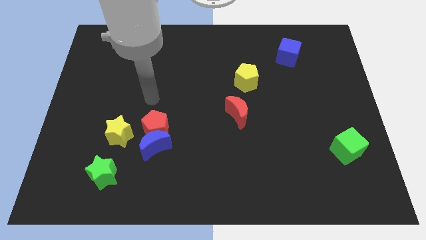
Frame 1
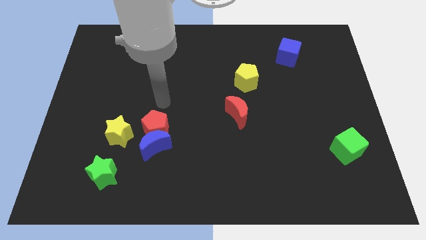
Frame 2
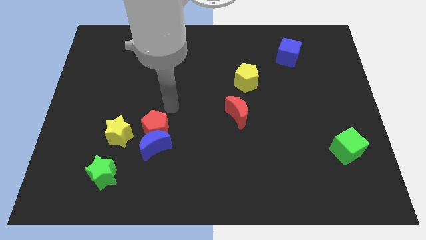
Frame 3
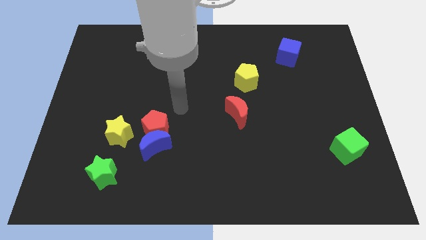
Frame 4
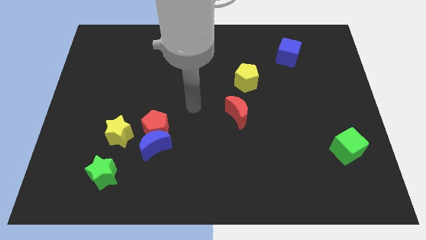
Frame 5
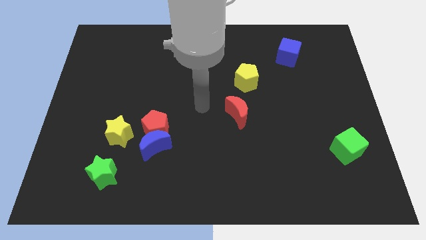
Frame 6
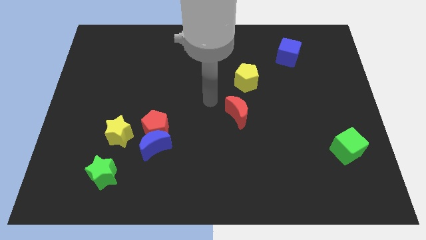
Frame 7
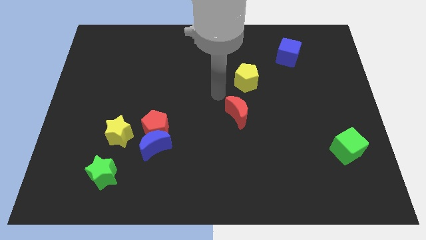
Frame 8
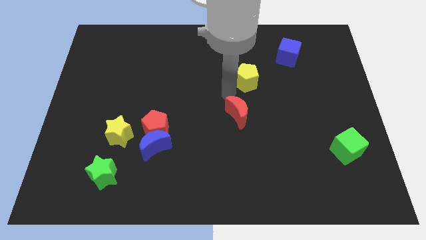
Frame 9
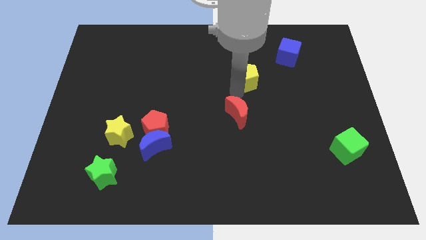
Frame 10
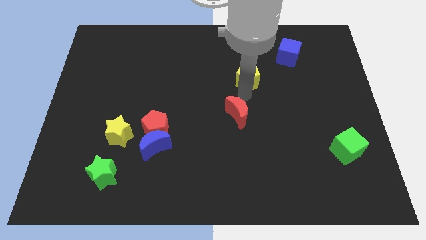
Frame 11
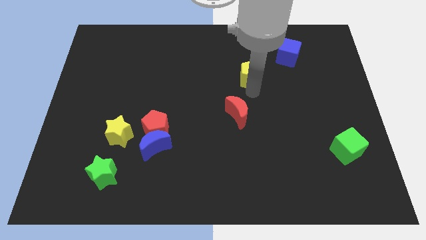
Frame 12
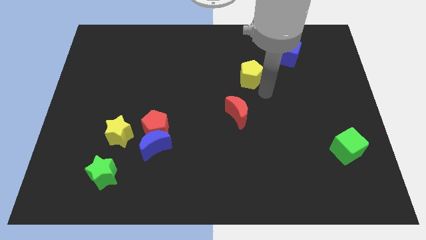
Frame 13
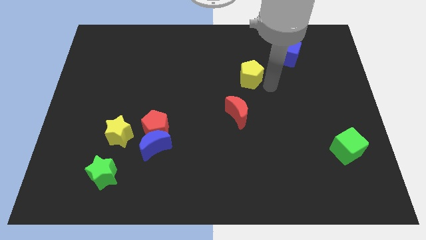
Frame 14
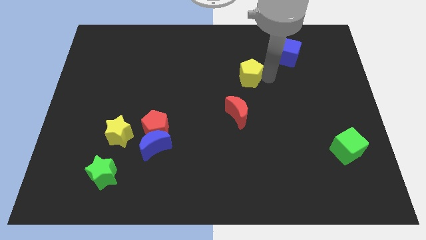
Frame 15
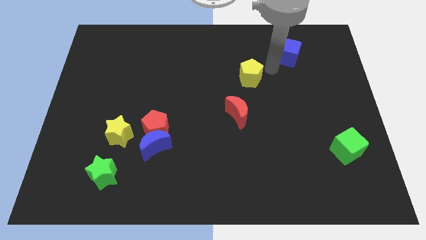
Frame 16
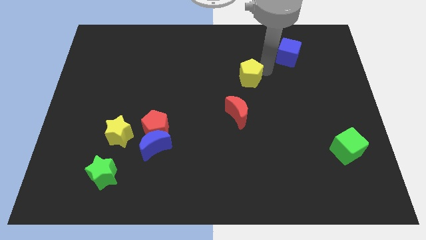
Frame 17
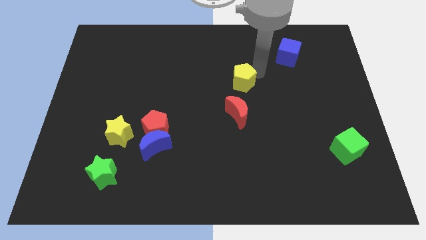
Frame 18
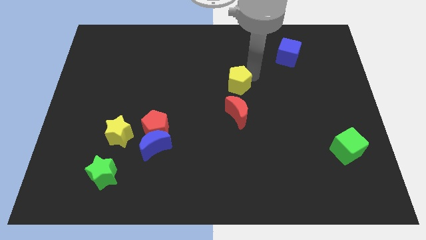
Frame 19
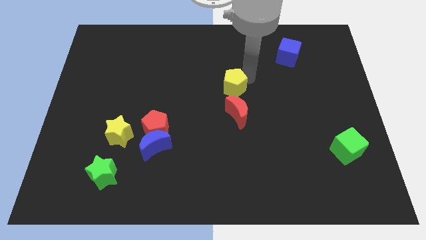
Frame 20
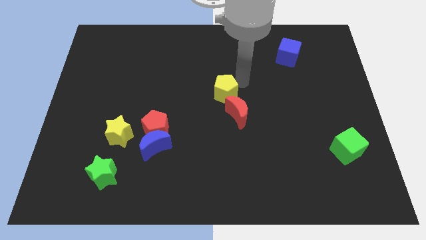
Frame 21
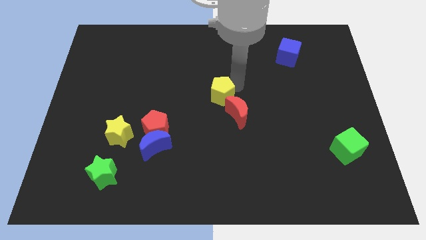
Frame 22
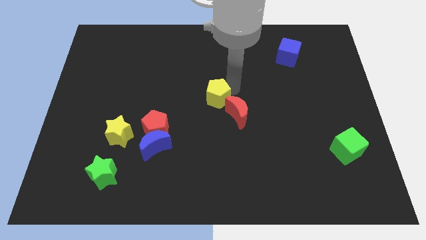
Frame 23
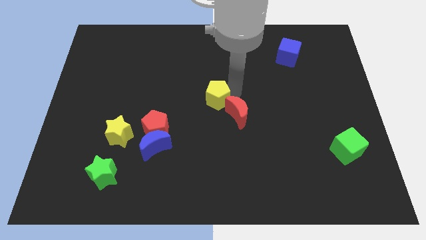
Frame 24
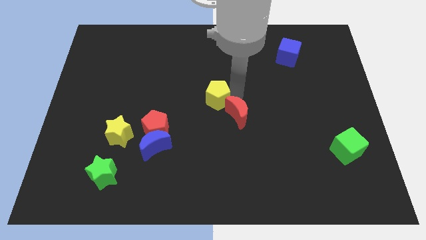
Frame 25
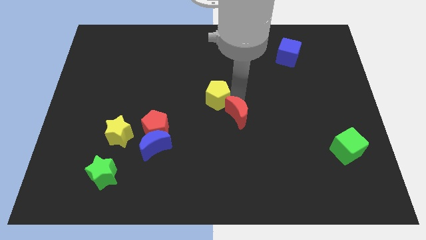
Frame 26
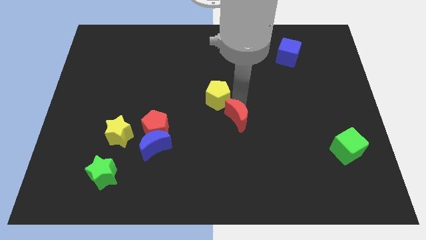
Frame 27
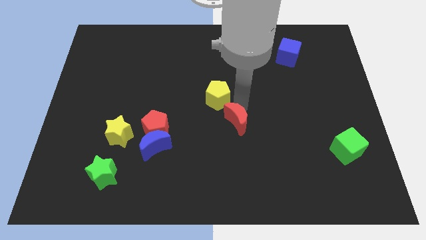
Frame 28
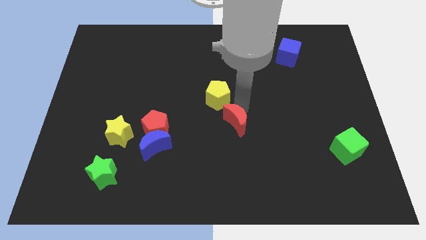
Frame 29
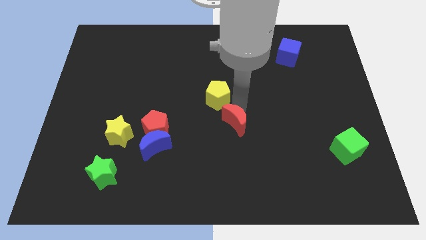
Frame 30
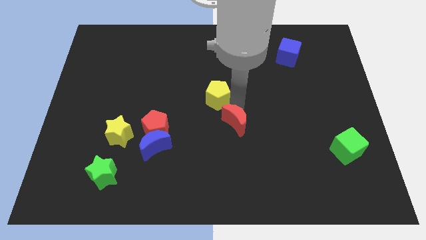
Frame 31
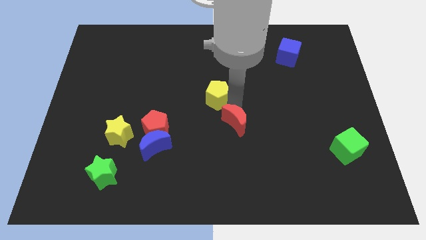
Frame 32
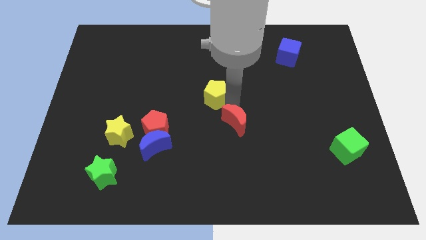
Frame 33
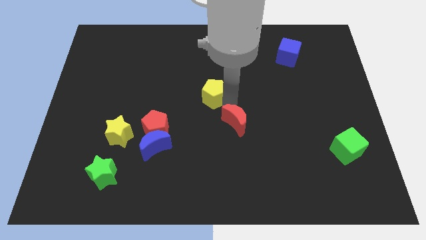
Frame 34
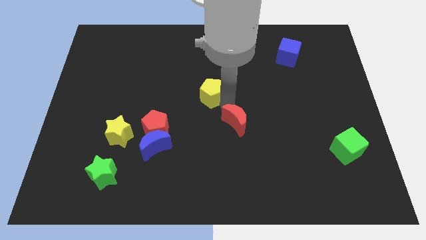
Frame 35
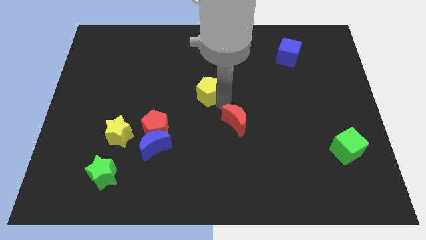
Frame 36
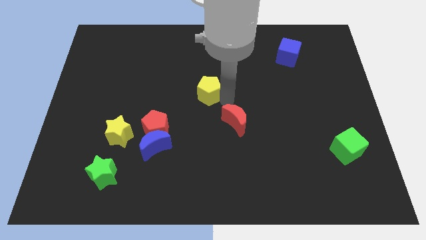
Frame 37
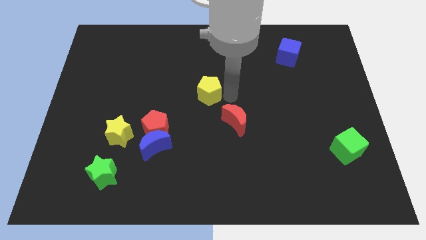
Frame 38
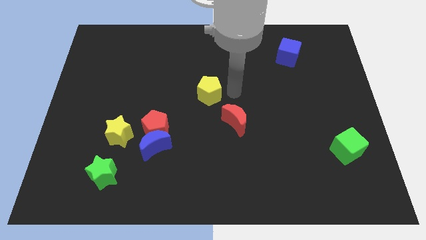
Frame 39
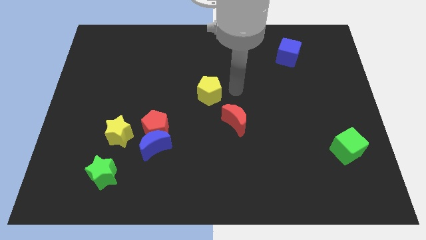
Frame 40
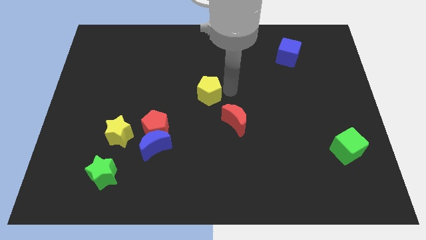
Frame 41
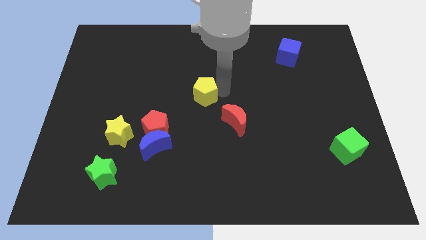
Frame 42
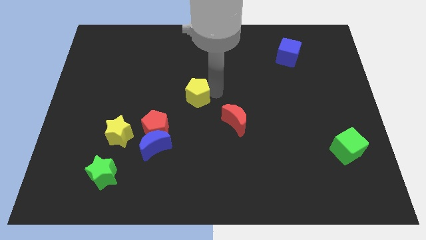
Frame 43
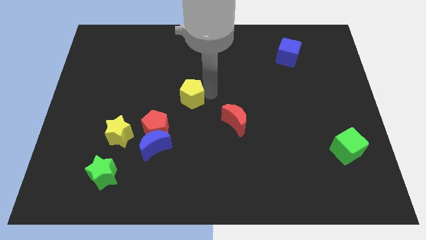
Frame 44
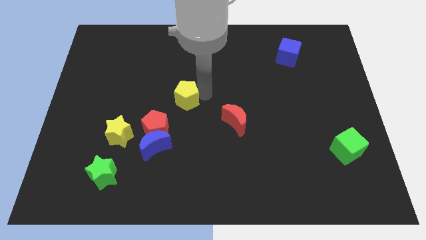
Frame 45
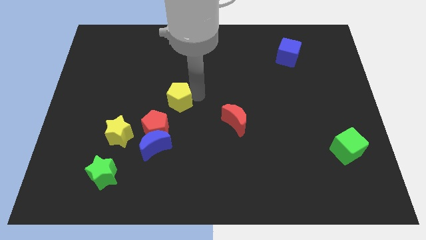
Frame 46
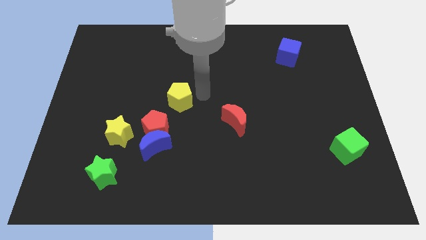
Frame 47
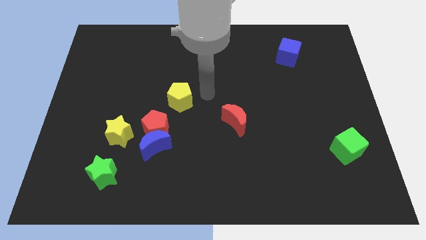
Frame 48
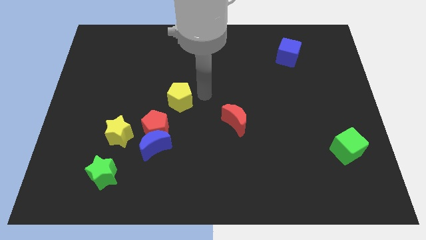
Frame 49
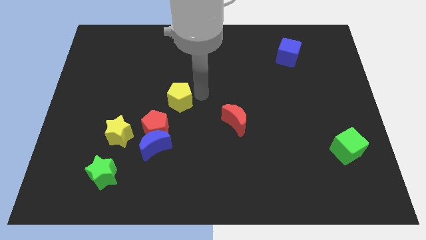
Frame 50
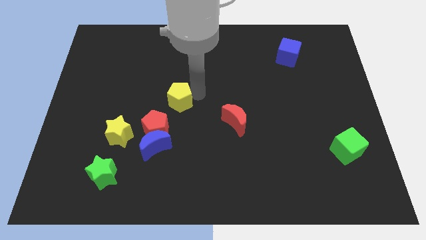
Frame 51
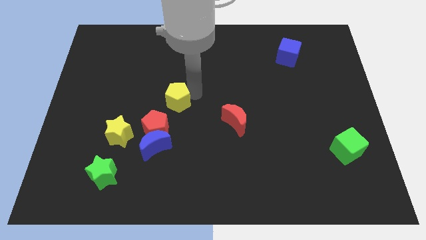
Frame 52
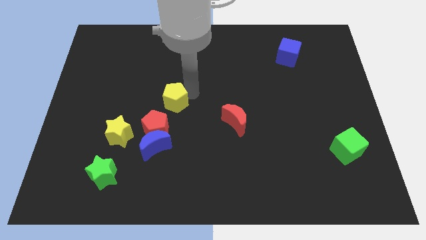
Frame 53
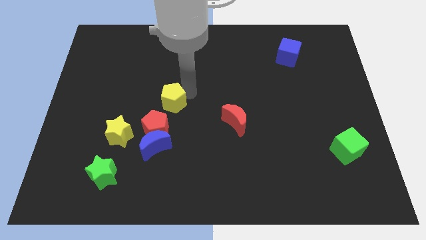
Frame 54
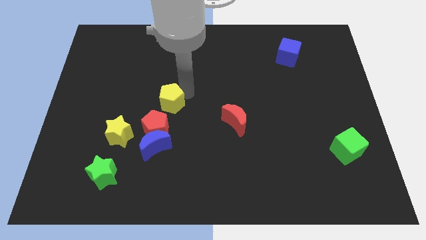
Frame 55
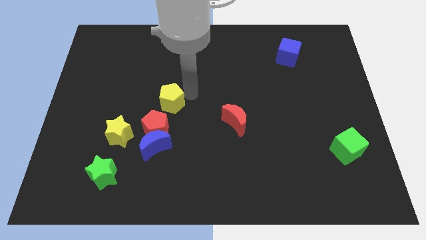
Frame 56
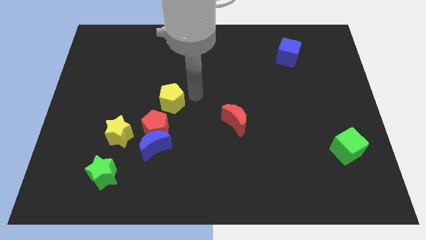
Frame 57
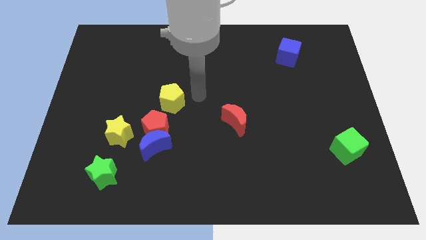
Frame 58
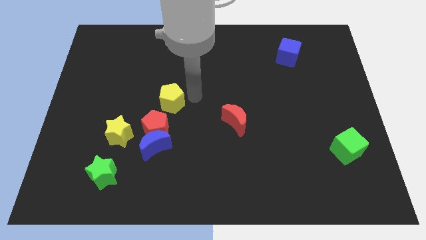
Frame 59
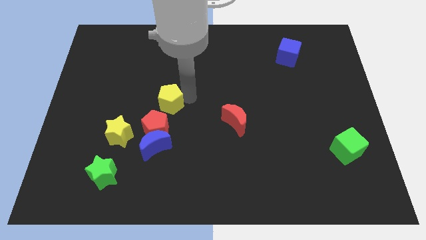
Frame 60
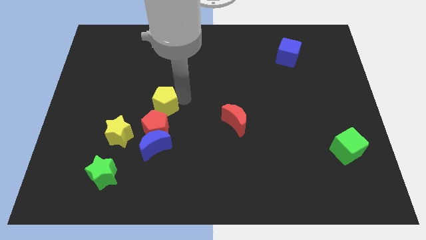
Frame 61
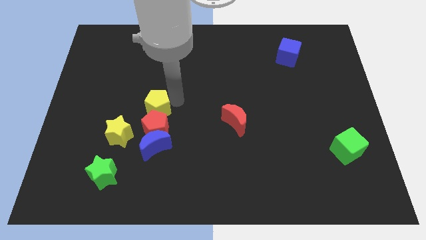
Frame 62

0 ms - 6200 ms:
put the yellow pentagon to the top left side of the red pentagon

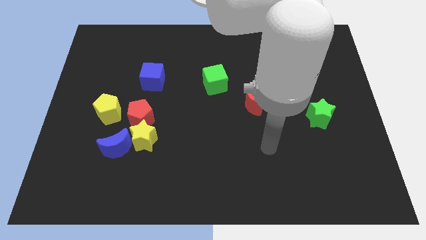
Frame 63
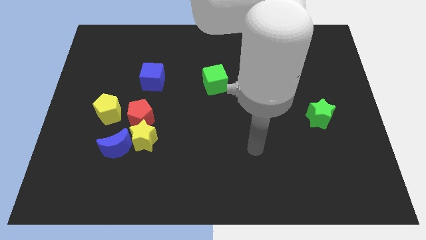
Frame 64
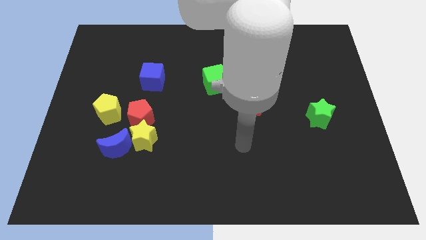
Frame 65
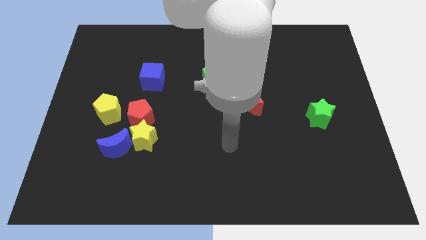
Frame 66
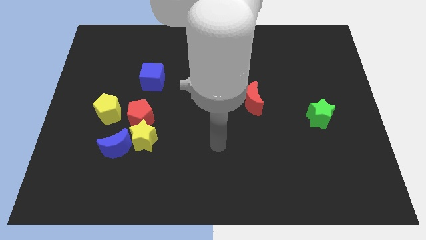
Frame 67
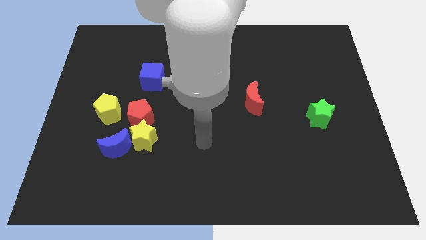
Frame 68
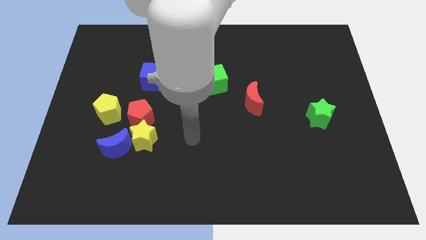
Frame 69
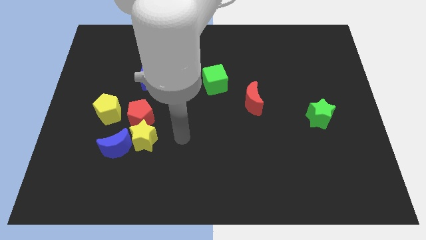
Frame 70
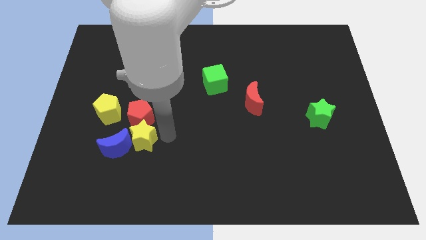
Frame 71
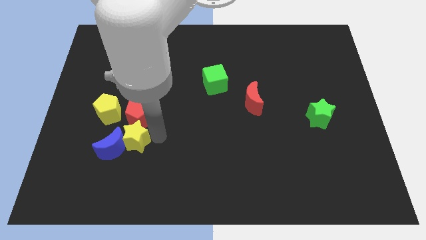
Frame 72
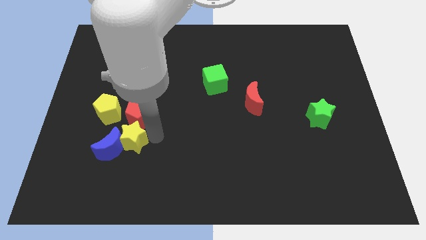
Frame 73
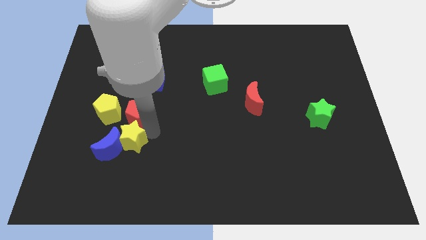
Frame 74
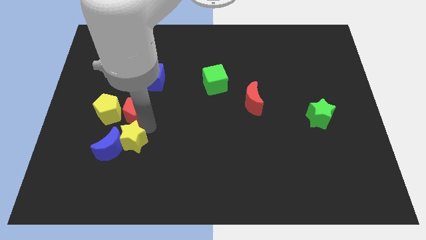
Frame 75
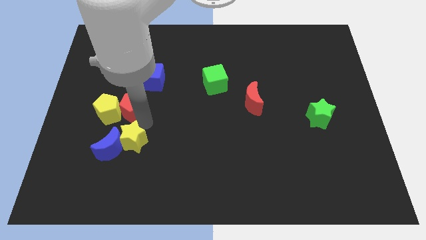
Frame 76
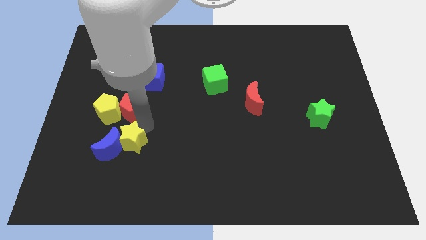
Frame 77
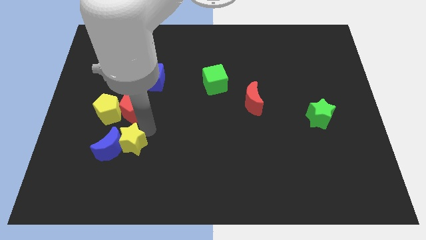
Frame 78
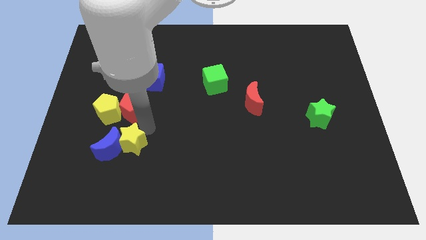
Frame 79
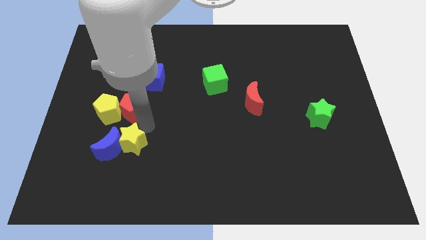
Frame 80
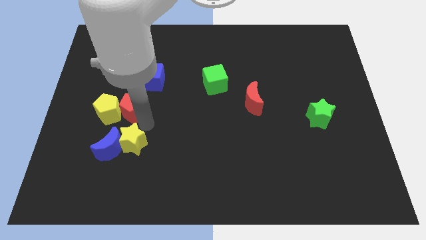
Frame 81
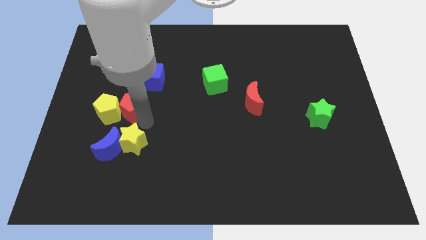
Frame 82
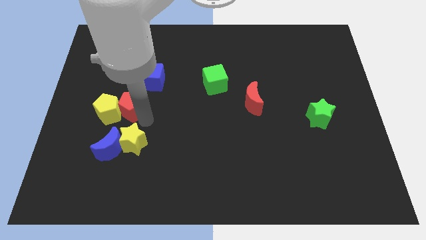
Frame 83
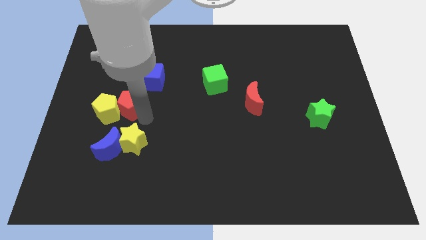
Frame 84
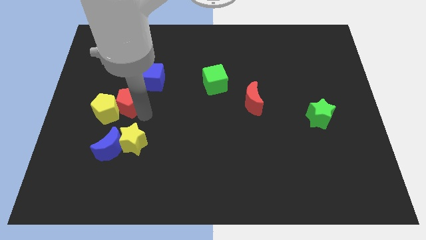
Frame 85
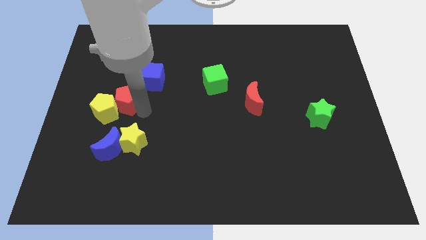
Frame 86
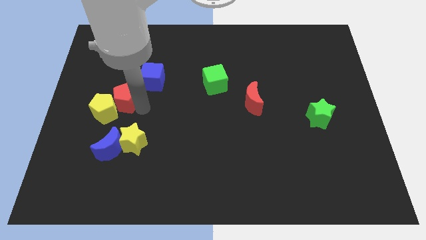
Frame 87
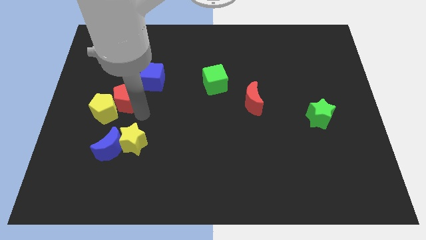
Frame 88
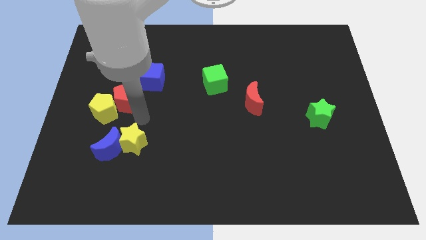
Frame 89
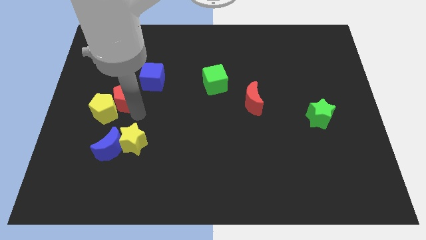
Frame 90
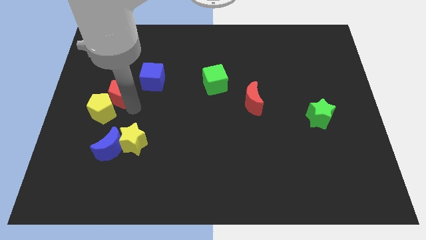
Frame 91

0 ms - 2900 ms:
put the red pentagon to the left side of the blue cube
